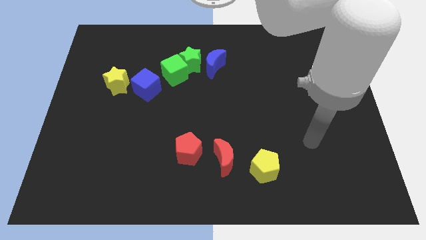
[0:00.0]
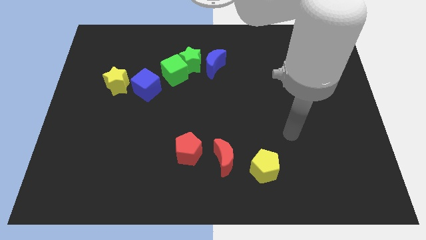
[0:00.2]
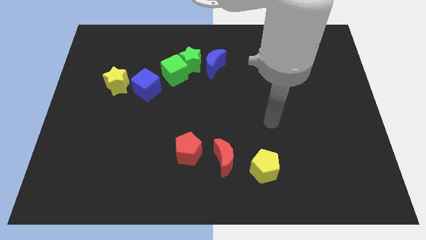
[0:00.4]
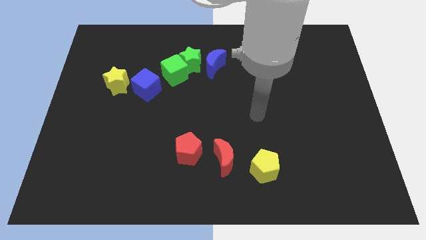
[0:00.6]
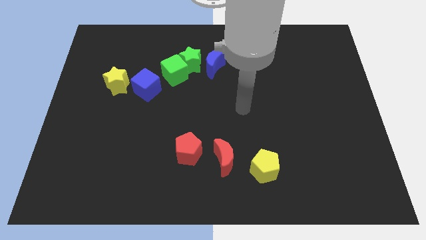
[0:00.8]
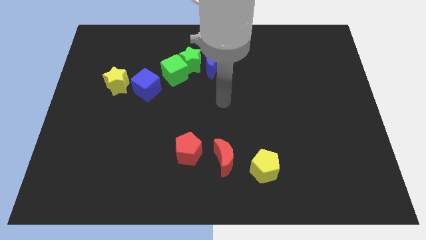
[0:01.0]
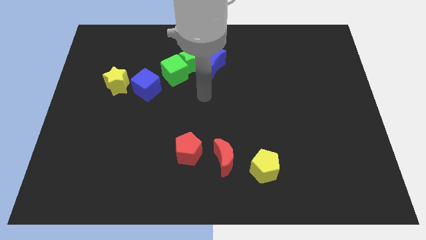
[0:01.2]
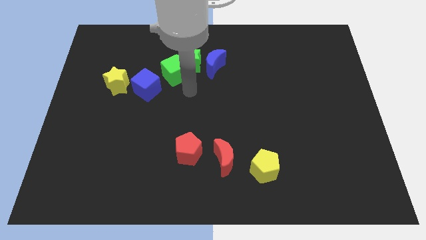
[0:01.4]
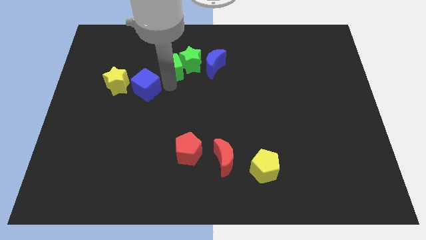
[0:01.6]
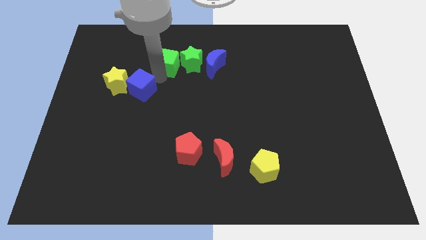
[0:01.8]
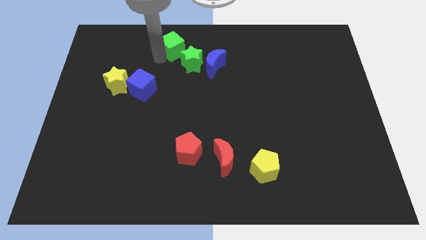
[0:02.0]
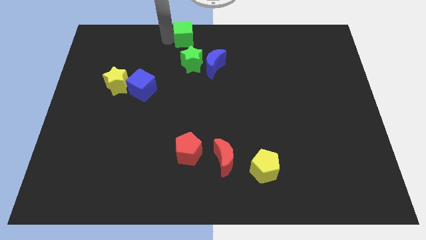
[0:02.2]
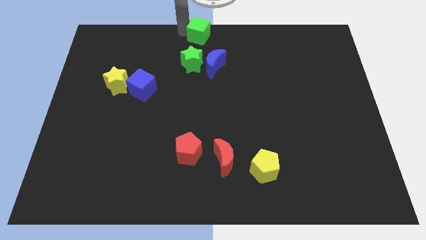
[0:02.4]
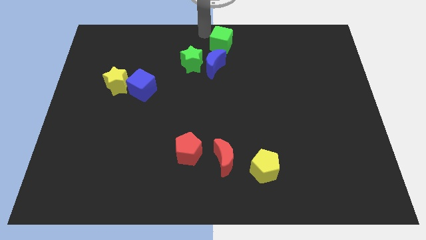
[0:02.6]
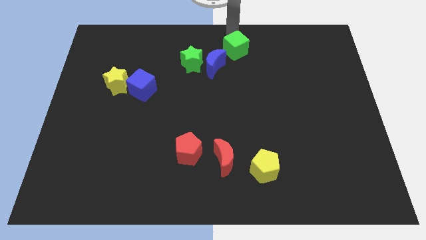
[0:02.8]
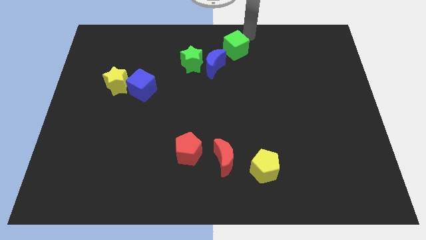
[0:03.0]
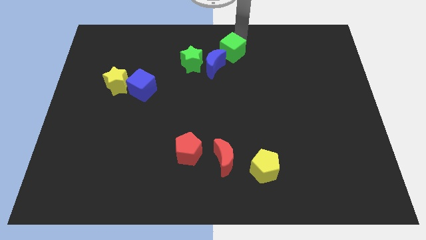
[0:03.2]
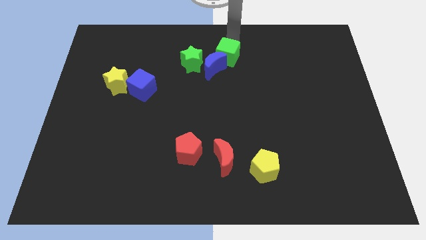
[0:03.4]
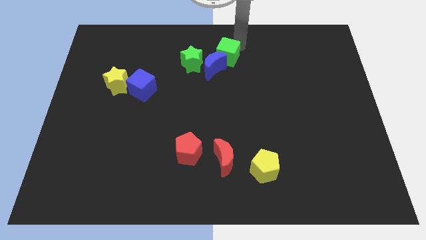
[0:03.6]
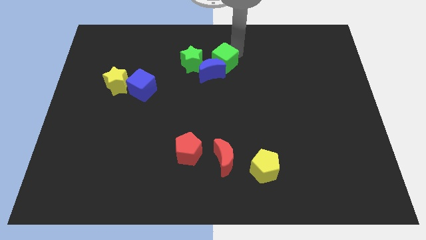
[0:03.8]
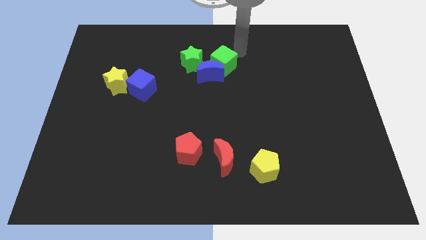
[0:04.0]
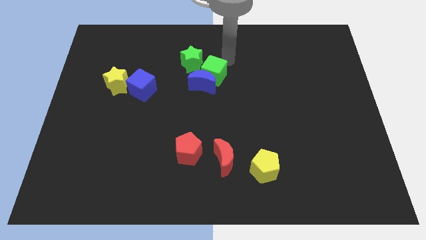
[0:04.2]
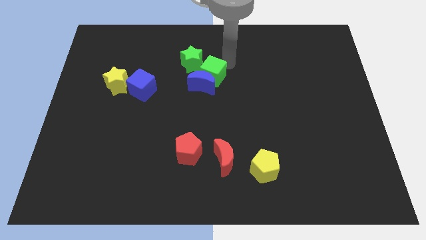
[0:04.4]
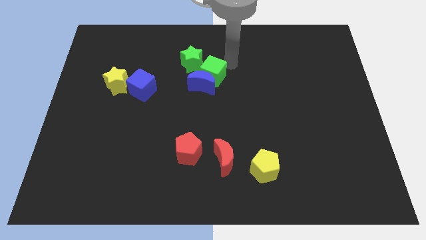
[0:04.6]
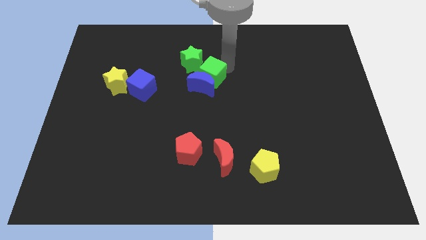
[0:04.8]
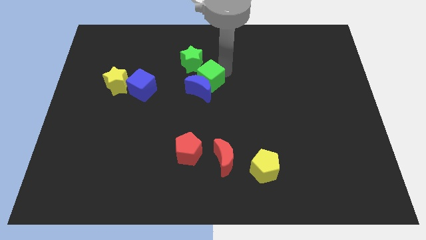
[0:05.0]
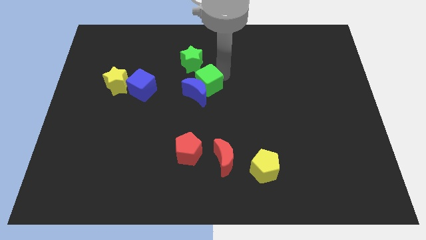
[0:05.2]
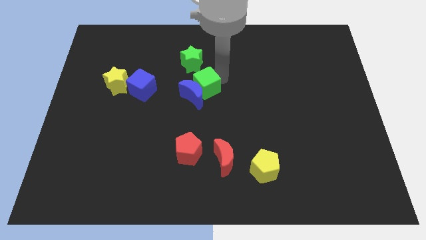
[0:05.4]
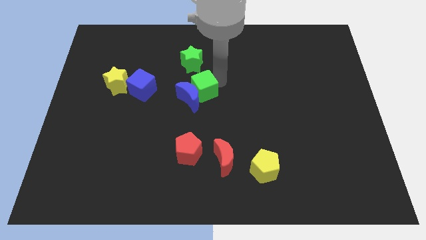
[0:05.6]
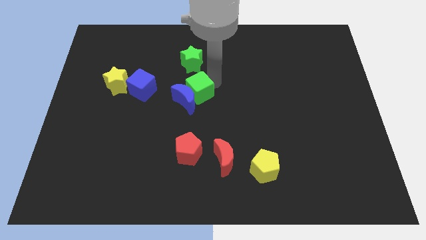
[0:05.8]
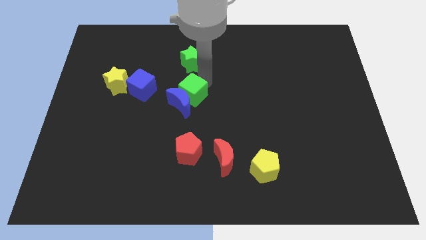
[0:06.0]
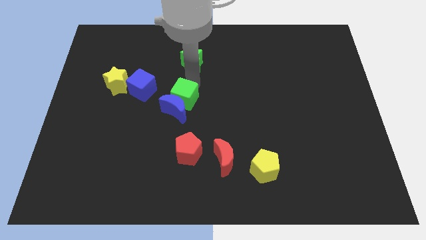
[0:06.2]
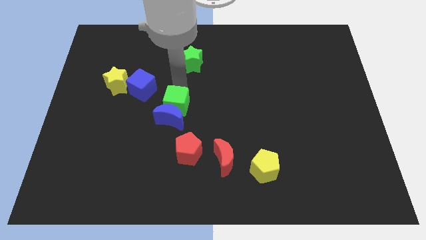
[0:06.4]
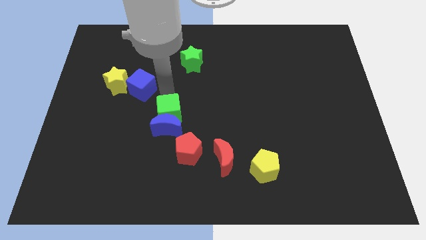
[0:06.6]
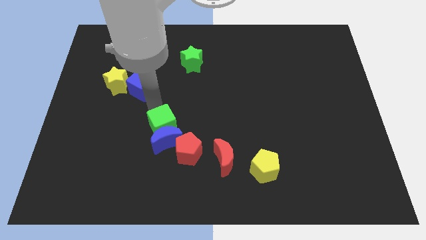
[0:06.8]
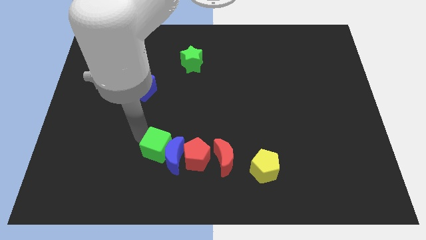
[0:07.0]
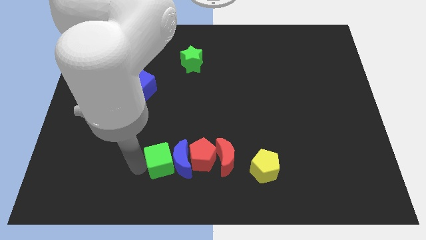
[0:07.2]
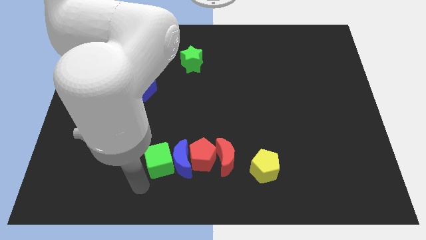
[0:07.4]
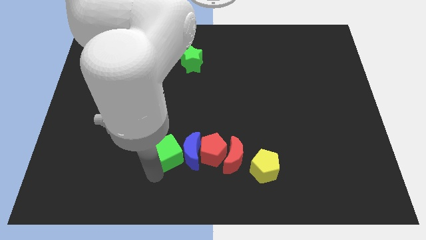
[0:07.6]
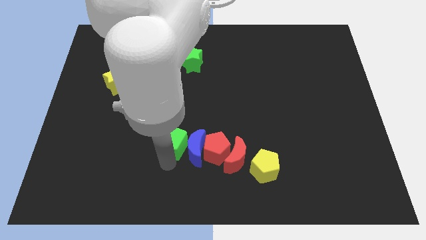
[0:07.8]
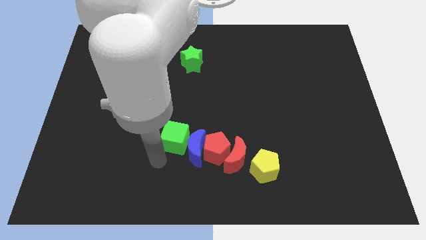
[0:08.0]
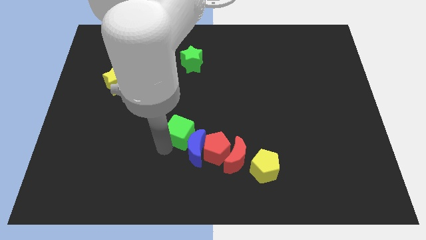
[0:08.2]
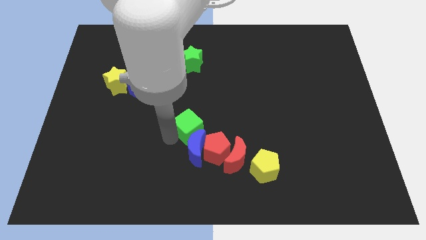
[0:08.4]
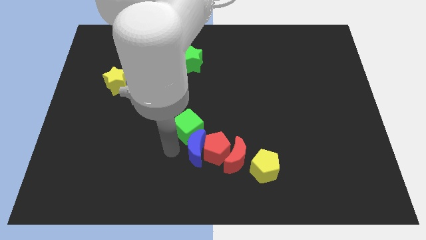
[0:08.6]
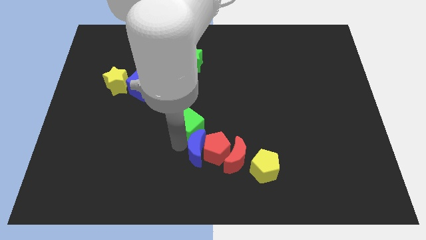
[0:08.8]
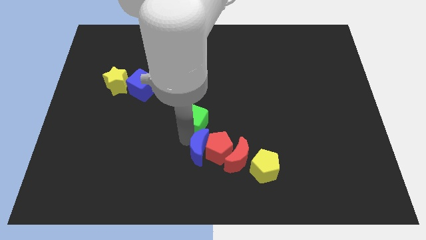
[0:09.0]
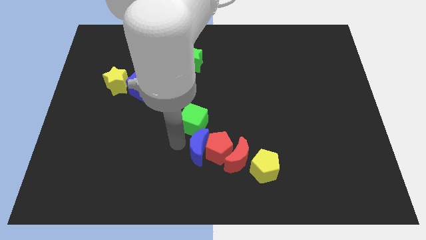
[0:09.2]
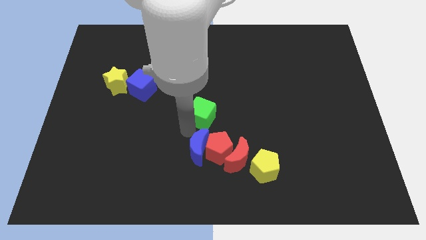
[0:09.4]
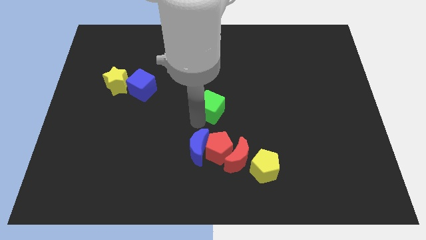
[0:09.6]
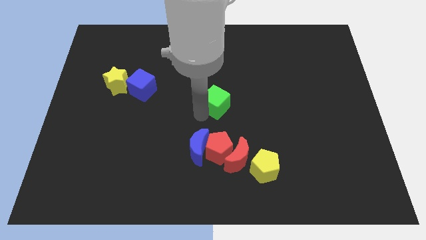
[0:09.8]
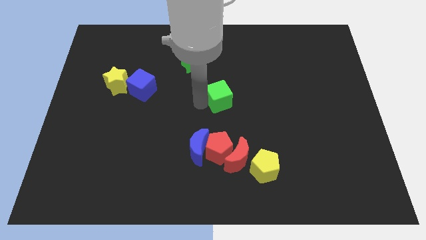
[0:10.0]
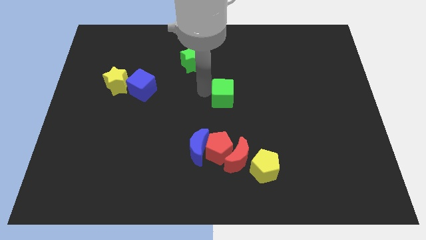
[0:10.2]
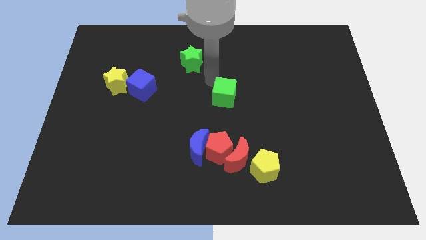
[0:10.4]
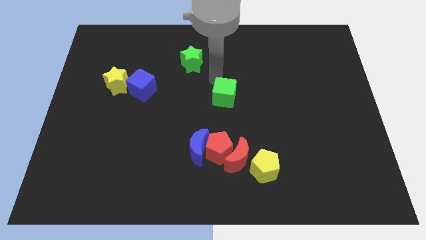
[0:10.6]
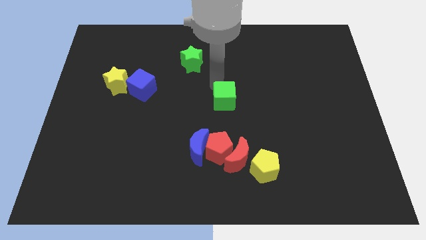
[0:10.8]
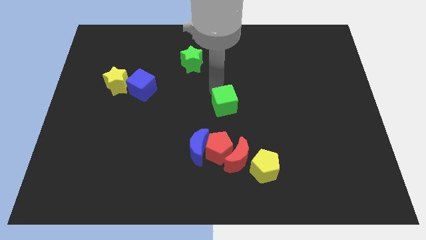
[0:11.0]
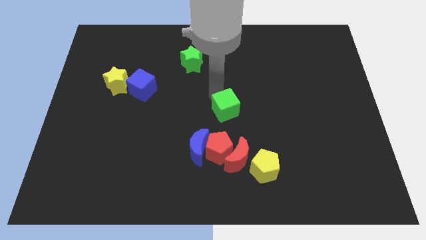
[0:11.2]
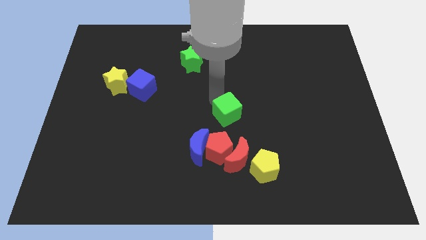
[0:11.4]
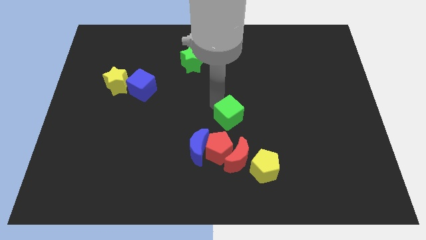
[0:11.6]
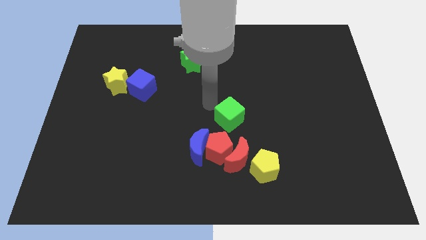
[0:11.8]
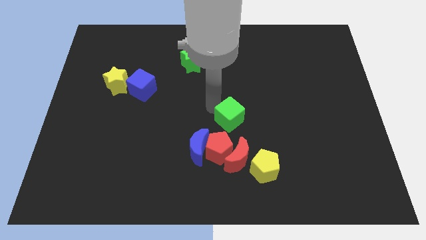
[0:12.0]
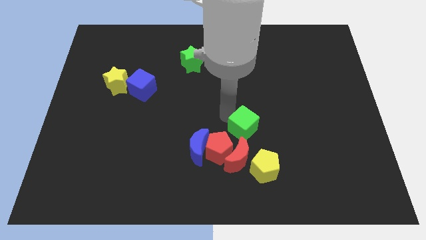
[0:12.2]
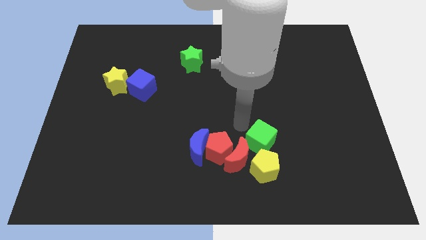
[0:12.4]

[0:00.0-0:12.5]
slide the green cube to the right side of the red moon

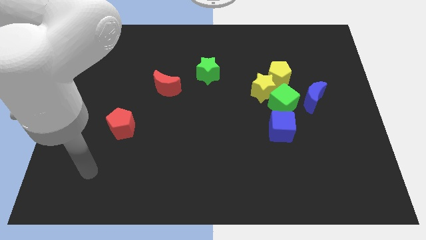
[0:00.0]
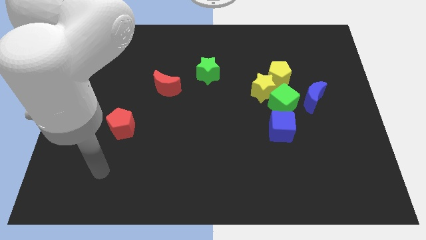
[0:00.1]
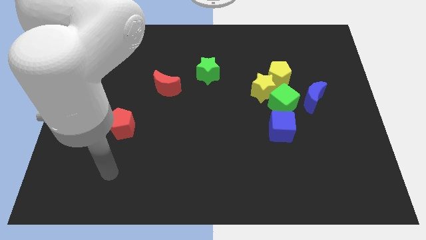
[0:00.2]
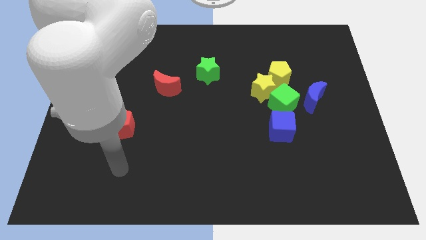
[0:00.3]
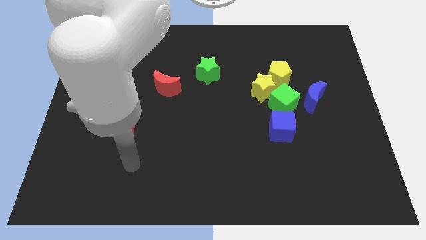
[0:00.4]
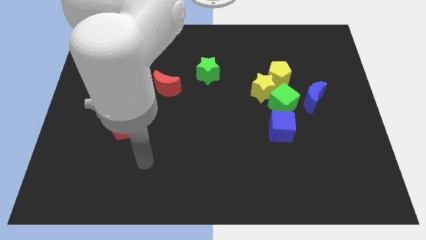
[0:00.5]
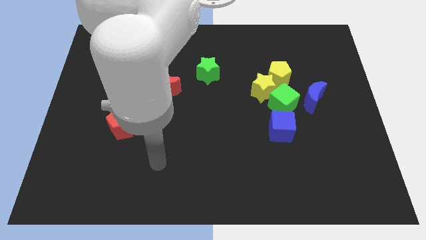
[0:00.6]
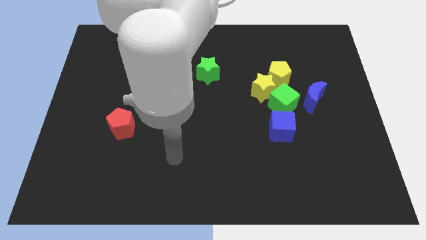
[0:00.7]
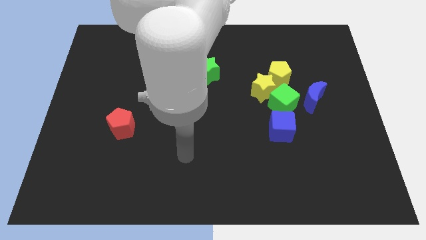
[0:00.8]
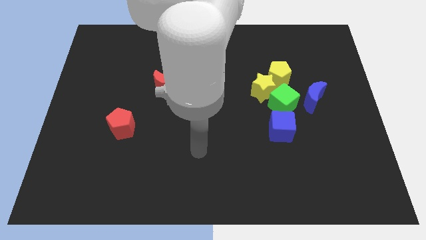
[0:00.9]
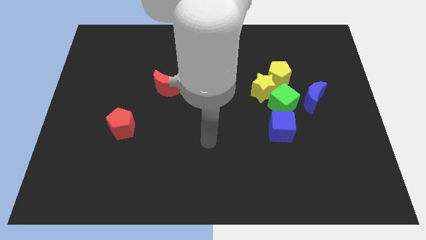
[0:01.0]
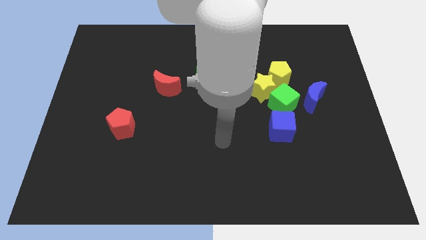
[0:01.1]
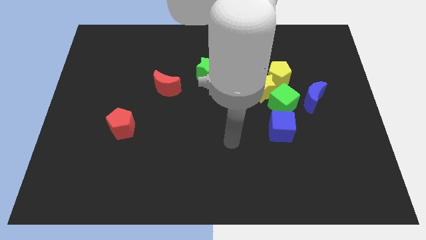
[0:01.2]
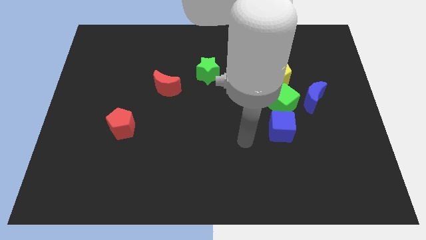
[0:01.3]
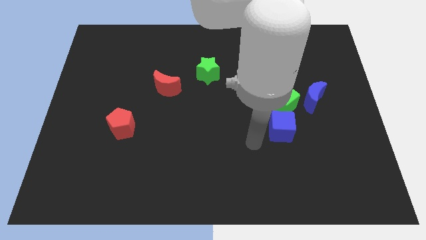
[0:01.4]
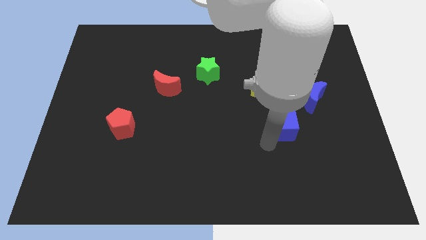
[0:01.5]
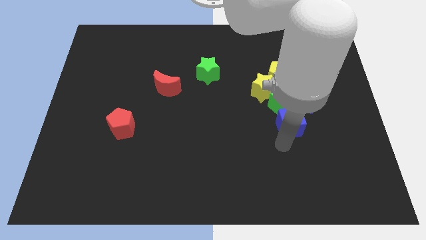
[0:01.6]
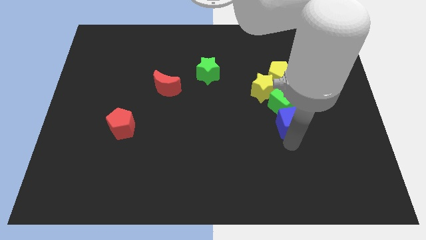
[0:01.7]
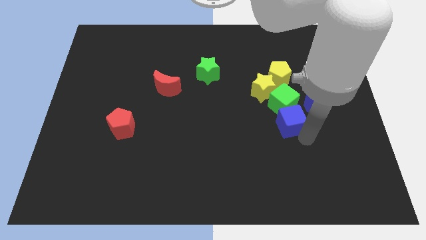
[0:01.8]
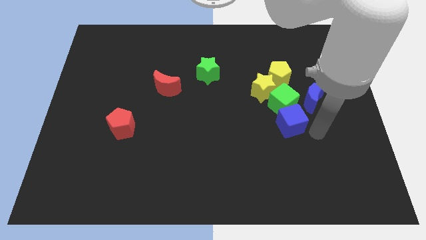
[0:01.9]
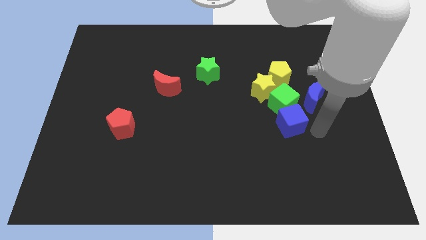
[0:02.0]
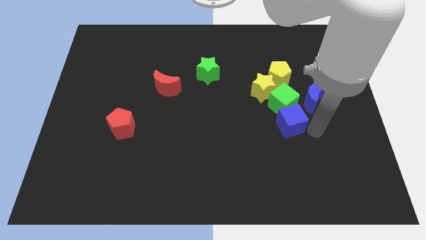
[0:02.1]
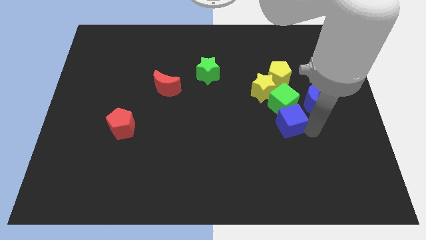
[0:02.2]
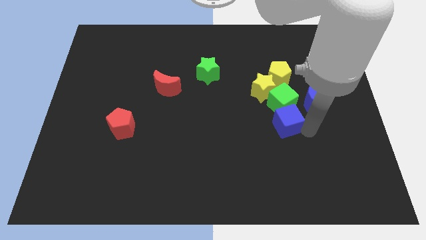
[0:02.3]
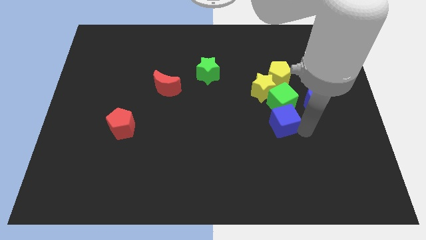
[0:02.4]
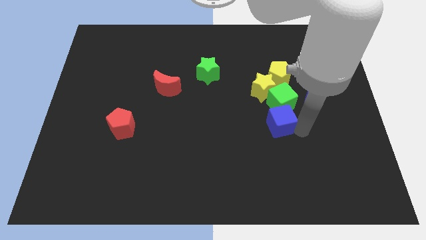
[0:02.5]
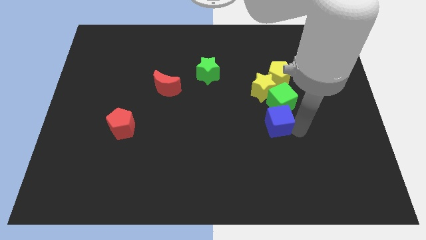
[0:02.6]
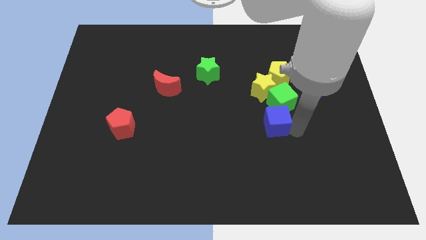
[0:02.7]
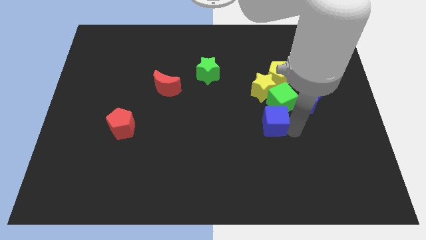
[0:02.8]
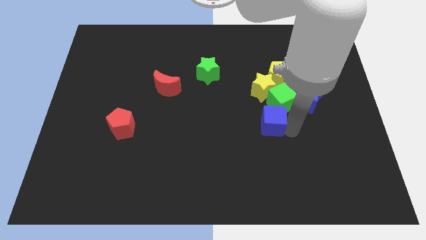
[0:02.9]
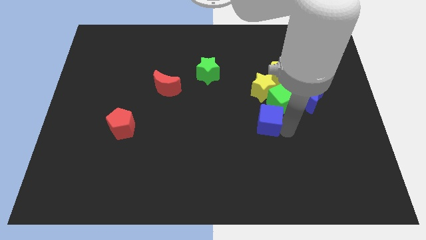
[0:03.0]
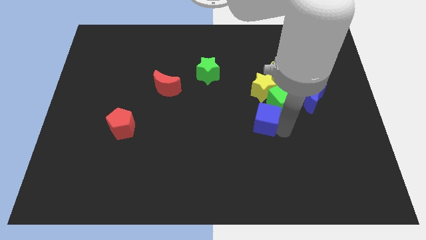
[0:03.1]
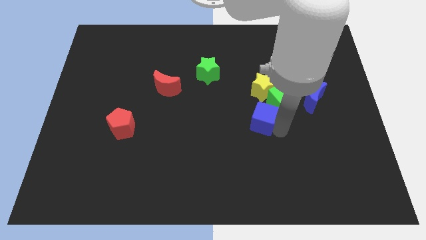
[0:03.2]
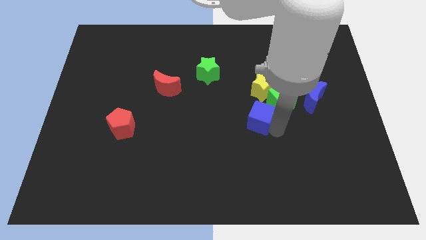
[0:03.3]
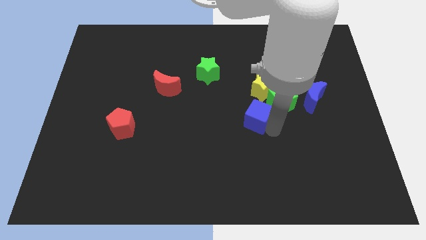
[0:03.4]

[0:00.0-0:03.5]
put the blue cube to the bottom left of the yellow star
